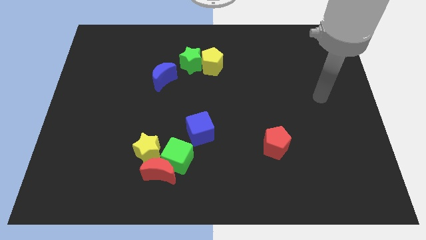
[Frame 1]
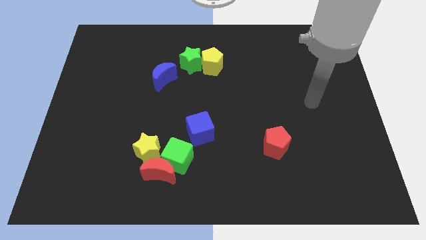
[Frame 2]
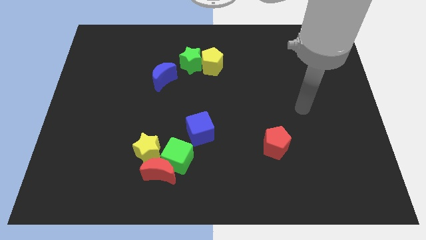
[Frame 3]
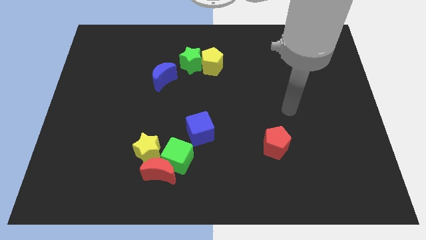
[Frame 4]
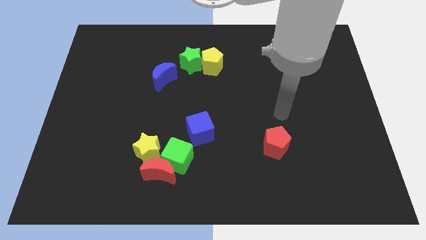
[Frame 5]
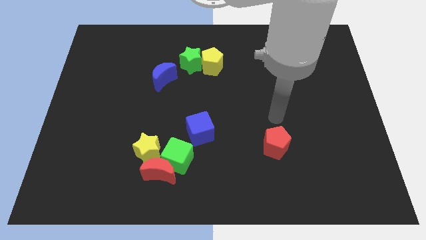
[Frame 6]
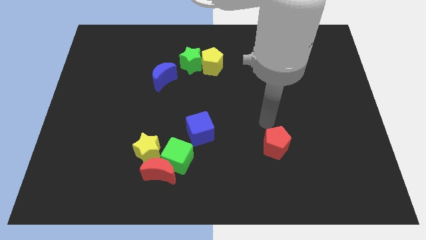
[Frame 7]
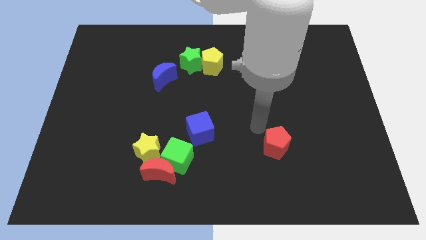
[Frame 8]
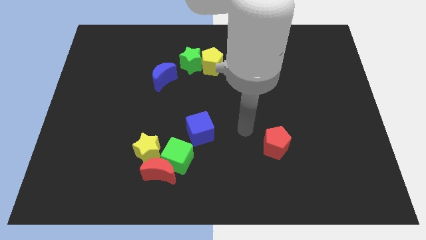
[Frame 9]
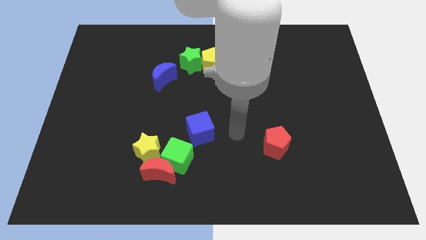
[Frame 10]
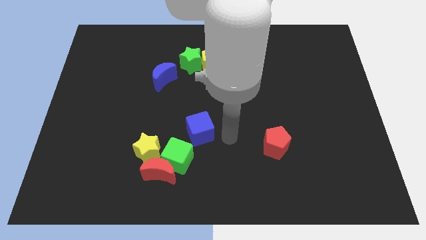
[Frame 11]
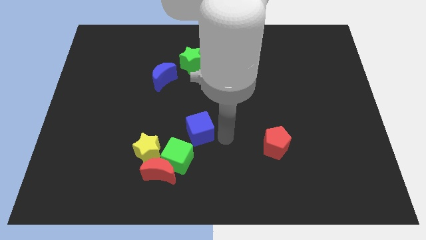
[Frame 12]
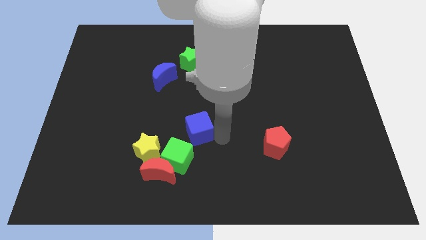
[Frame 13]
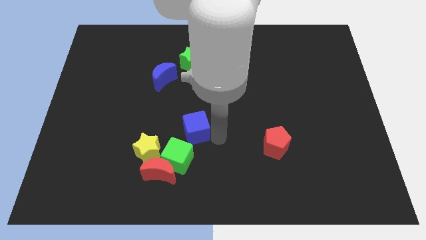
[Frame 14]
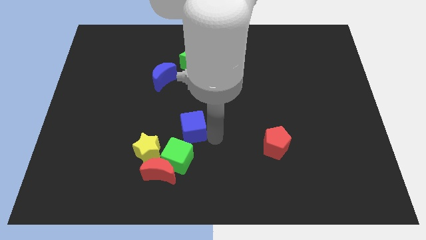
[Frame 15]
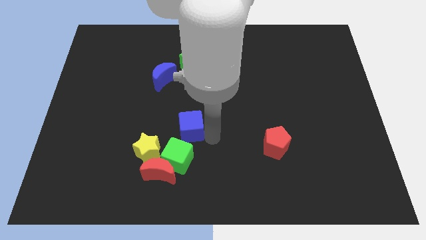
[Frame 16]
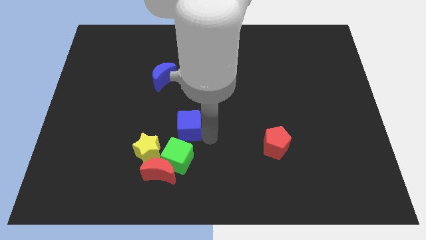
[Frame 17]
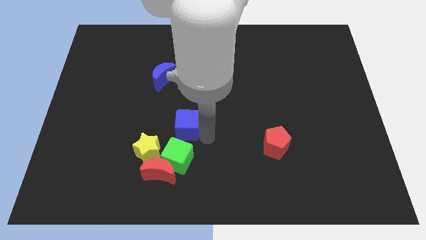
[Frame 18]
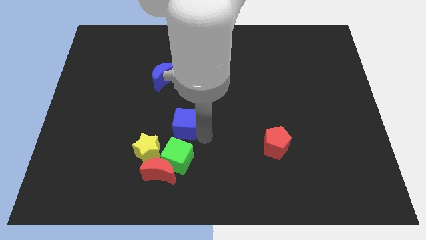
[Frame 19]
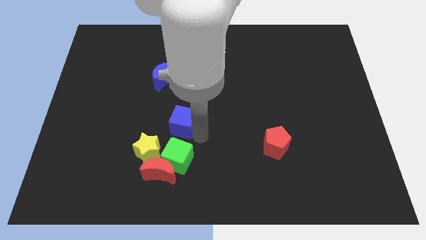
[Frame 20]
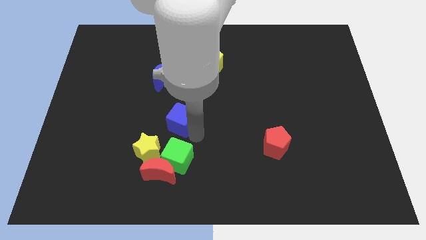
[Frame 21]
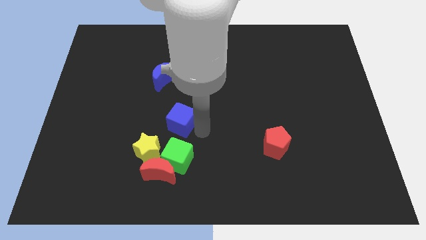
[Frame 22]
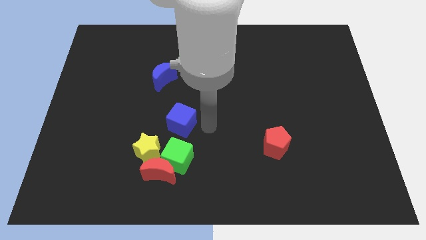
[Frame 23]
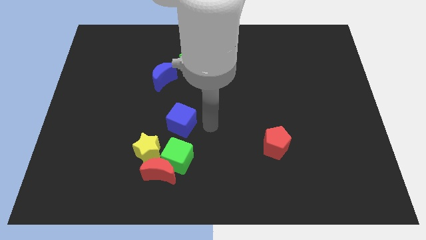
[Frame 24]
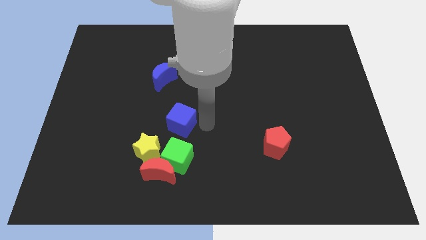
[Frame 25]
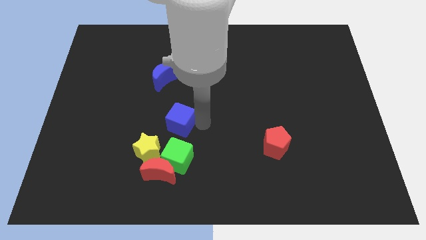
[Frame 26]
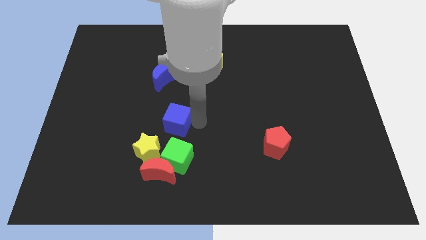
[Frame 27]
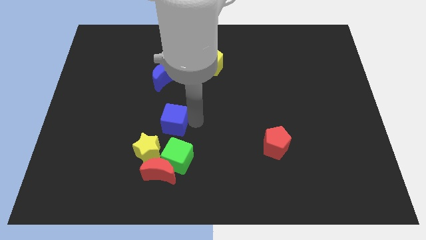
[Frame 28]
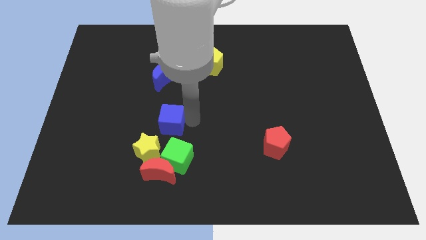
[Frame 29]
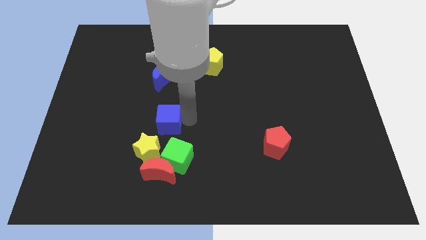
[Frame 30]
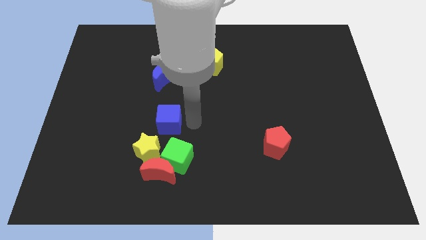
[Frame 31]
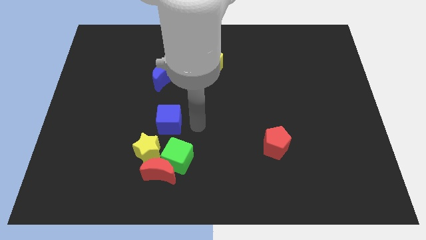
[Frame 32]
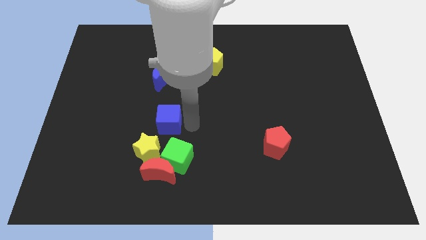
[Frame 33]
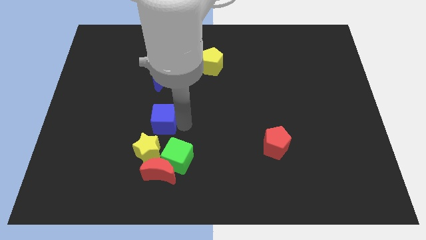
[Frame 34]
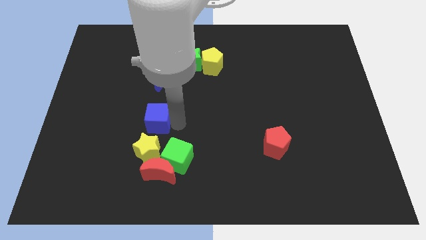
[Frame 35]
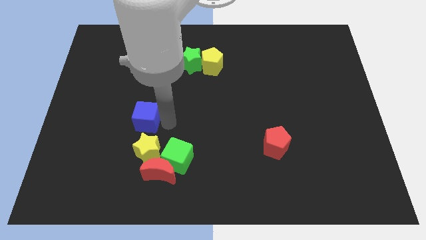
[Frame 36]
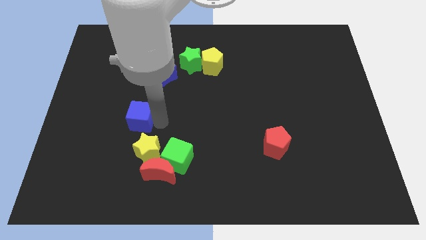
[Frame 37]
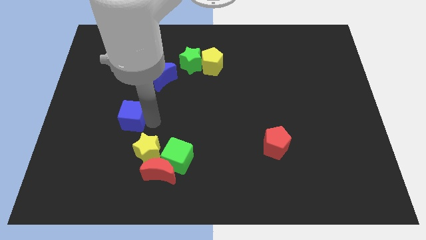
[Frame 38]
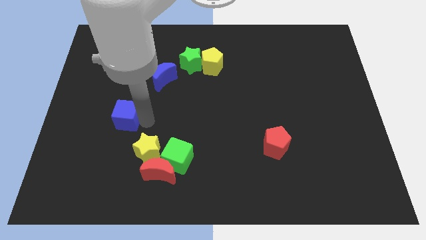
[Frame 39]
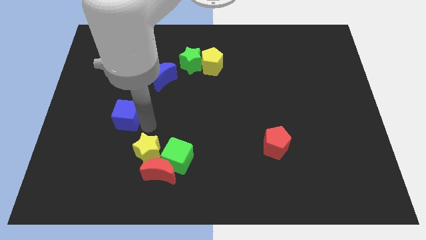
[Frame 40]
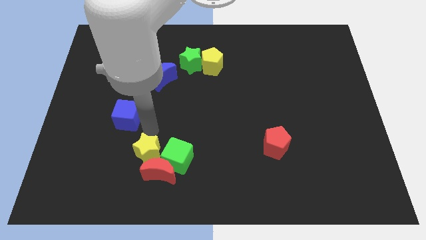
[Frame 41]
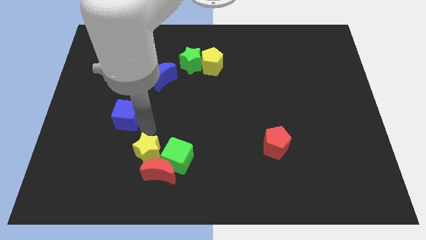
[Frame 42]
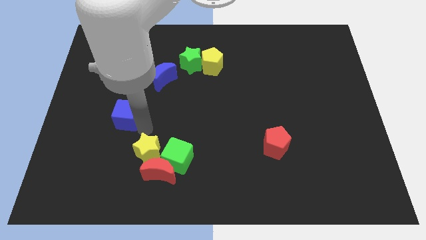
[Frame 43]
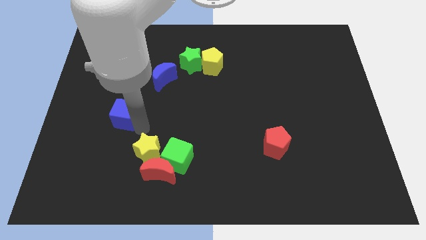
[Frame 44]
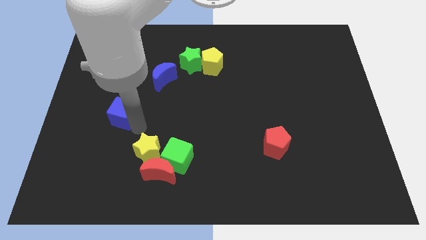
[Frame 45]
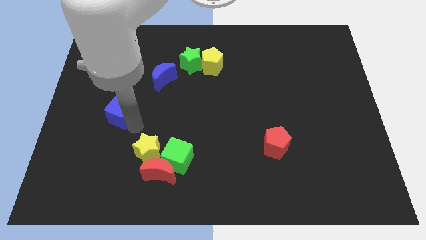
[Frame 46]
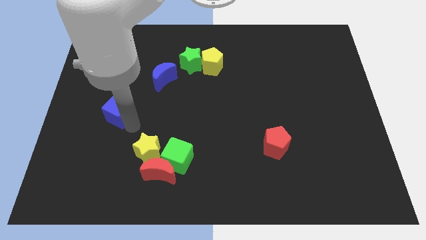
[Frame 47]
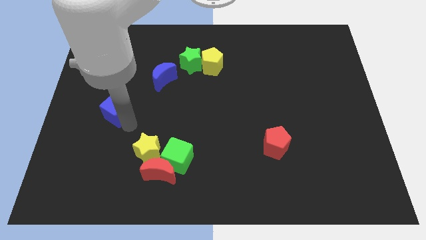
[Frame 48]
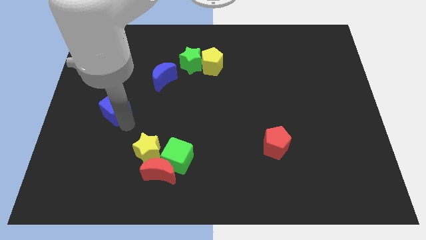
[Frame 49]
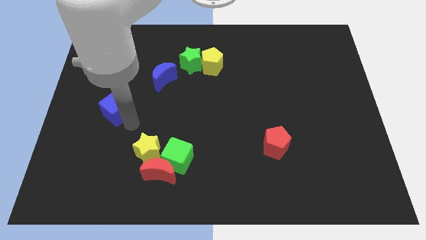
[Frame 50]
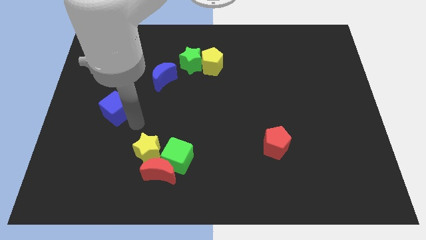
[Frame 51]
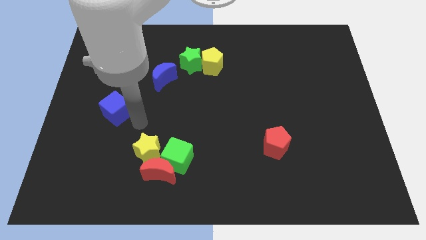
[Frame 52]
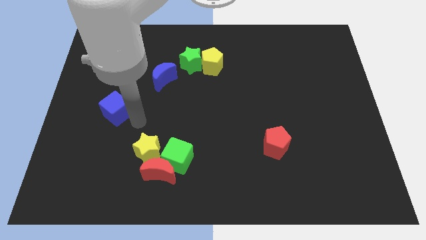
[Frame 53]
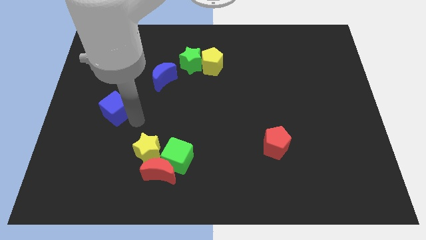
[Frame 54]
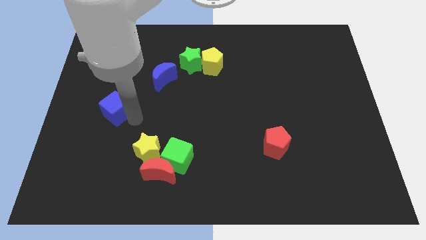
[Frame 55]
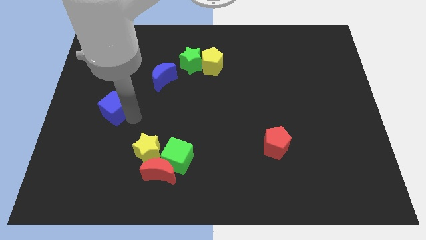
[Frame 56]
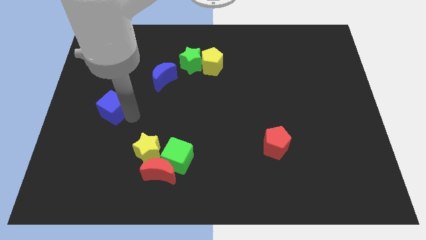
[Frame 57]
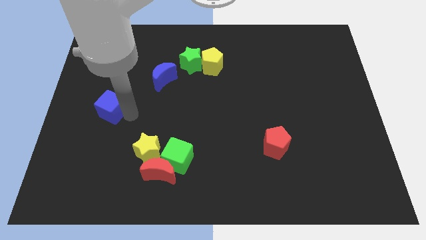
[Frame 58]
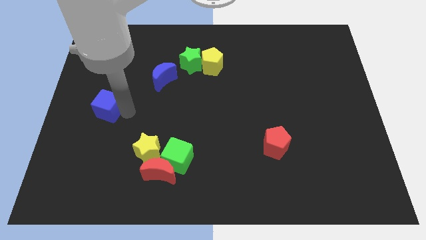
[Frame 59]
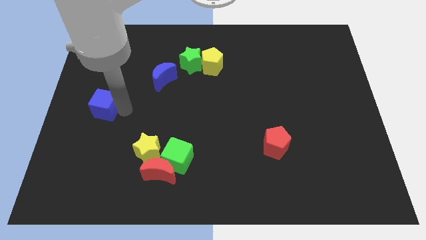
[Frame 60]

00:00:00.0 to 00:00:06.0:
push the blue cube to the center left
